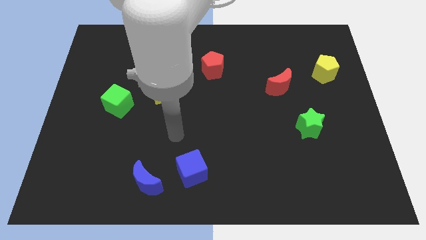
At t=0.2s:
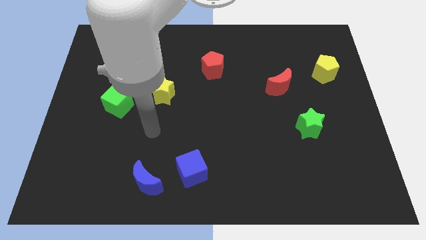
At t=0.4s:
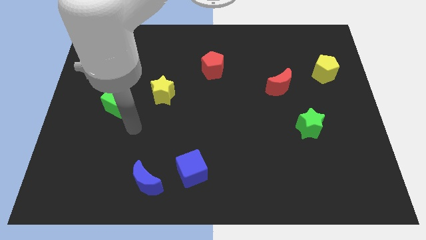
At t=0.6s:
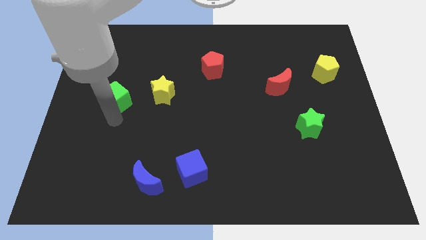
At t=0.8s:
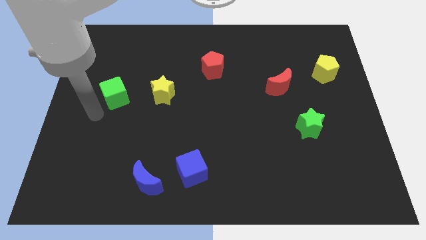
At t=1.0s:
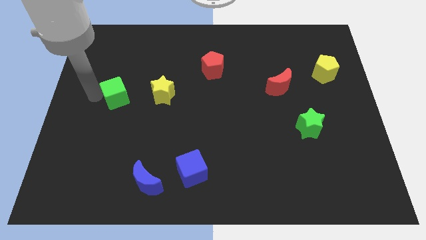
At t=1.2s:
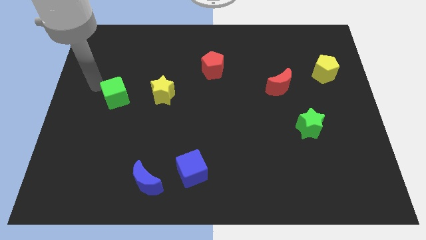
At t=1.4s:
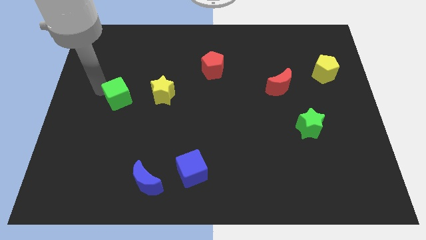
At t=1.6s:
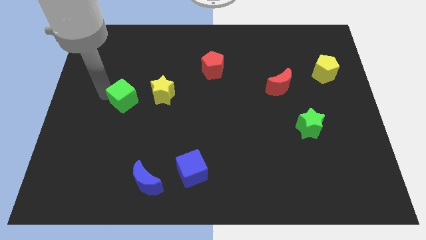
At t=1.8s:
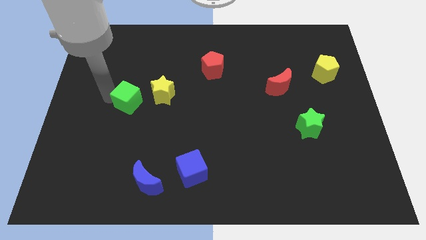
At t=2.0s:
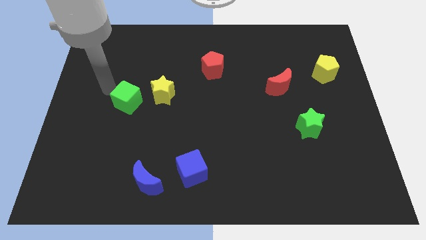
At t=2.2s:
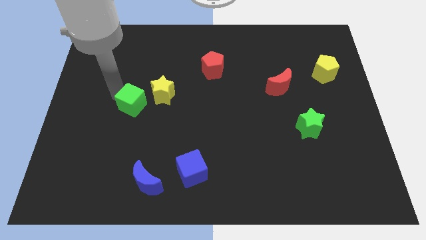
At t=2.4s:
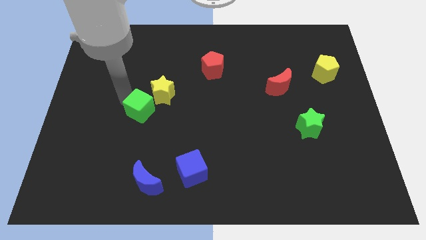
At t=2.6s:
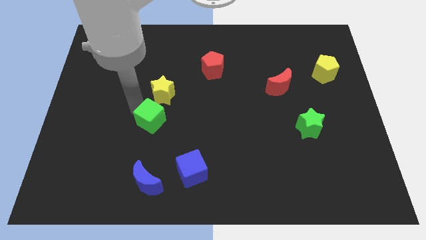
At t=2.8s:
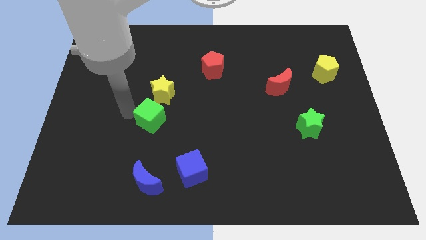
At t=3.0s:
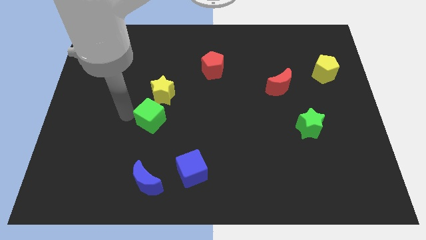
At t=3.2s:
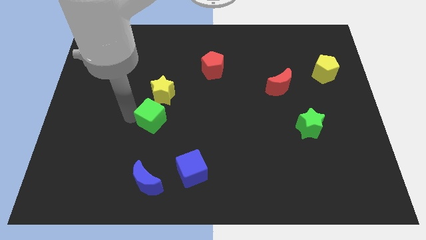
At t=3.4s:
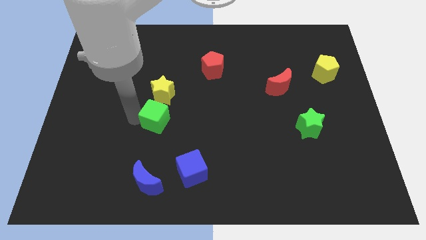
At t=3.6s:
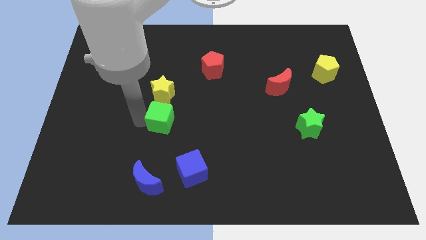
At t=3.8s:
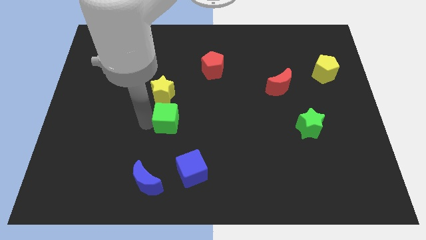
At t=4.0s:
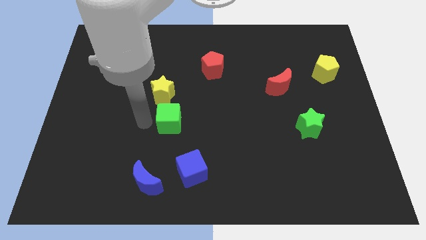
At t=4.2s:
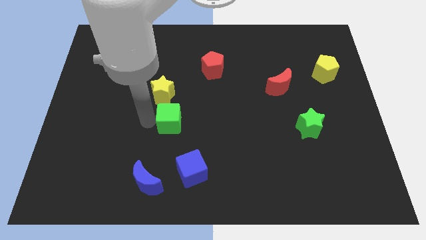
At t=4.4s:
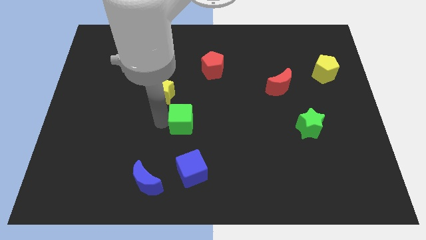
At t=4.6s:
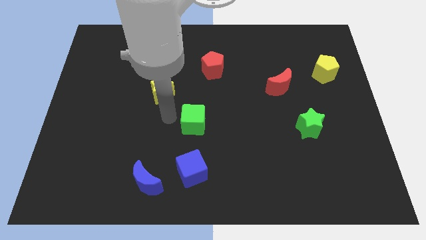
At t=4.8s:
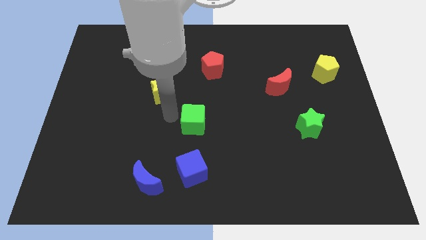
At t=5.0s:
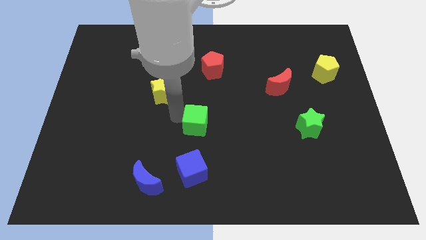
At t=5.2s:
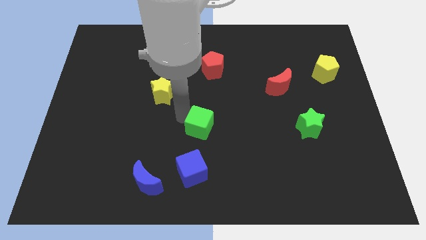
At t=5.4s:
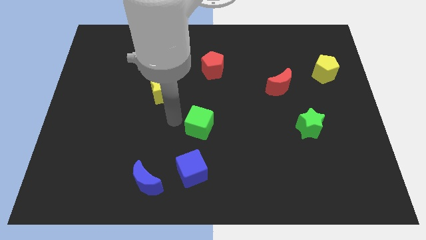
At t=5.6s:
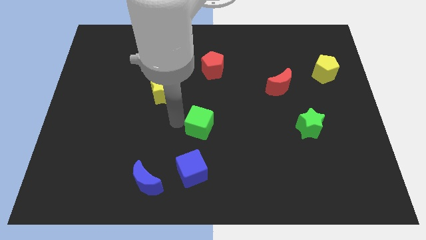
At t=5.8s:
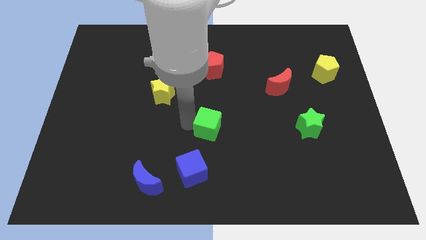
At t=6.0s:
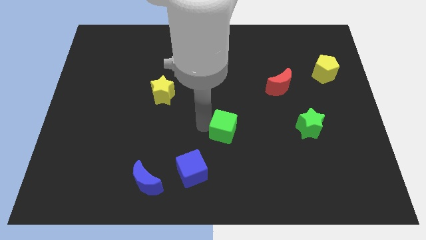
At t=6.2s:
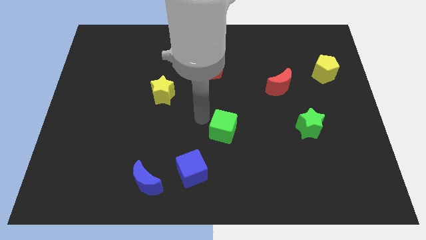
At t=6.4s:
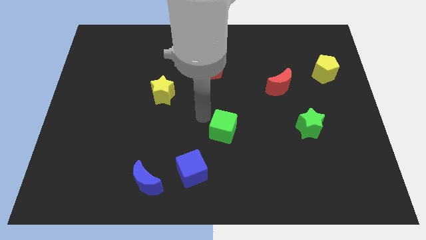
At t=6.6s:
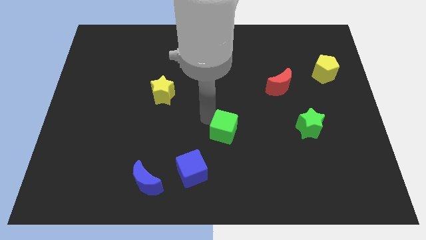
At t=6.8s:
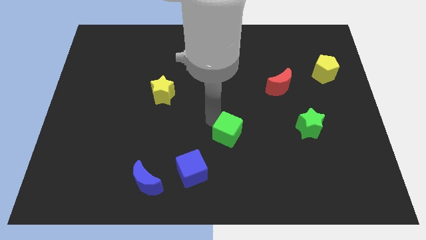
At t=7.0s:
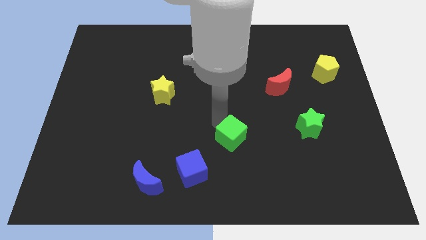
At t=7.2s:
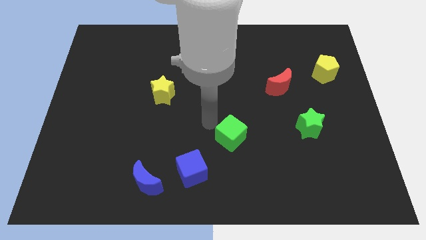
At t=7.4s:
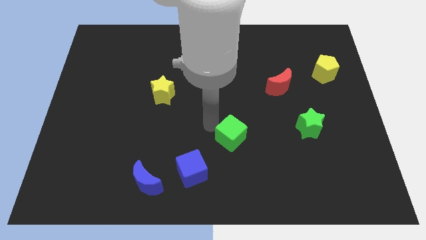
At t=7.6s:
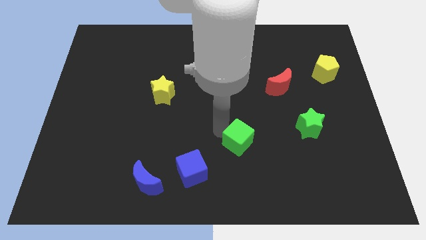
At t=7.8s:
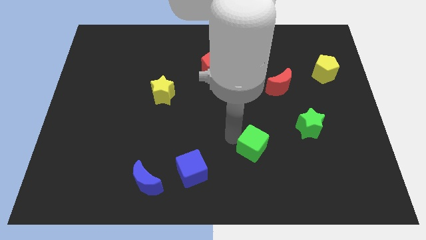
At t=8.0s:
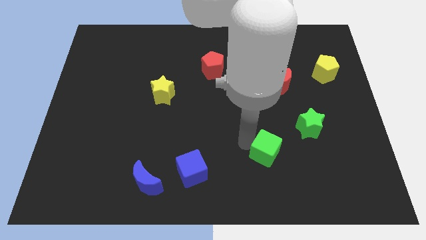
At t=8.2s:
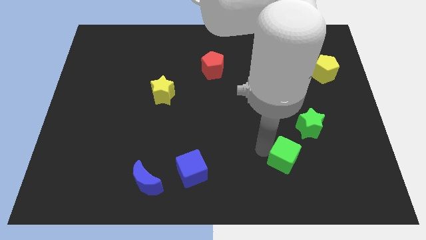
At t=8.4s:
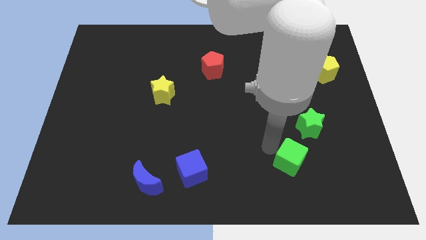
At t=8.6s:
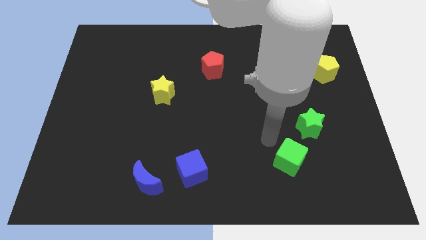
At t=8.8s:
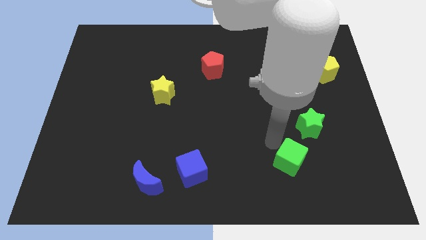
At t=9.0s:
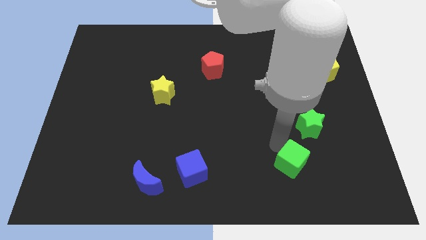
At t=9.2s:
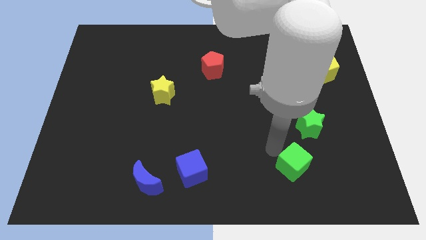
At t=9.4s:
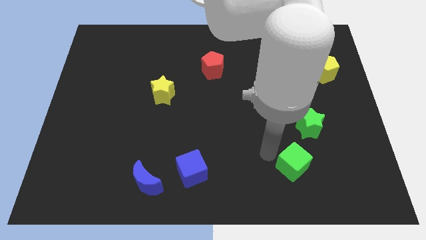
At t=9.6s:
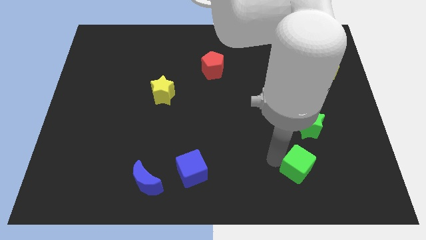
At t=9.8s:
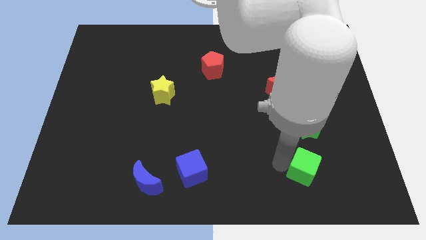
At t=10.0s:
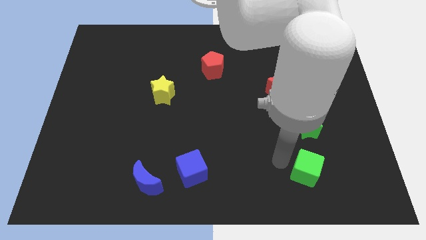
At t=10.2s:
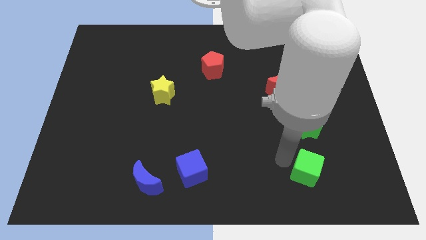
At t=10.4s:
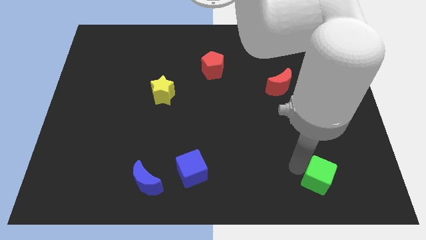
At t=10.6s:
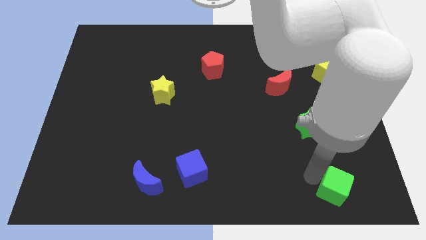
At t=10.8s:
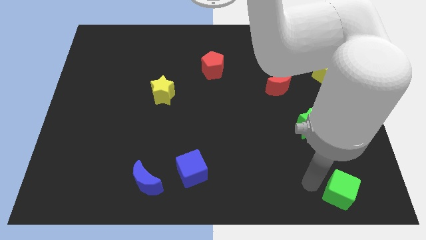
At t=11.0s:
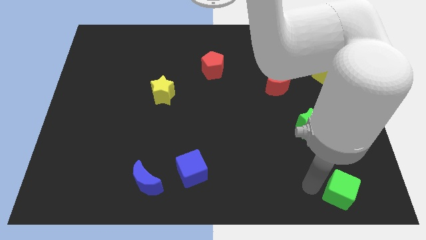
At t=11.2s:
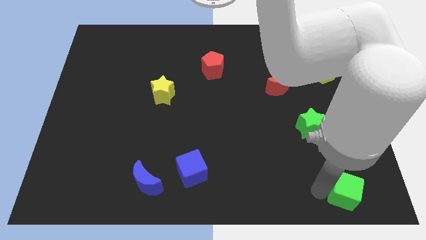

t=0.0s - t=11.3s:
move the green cube to the lower right corner

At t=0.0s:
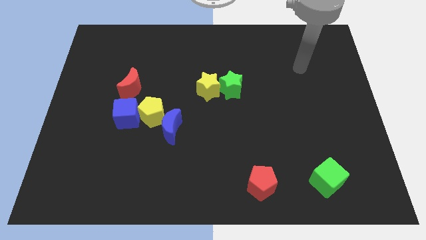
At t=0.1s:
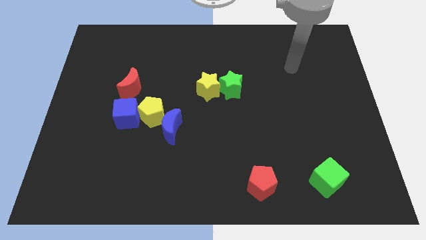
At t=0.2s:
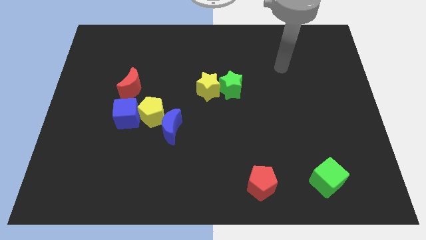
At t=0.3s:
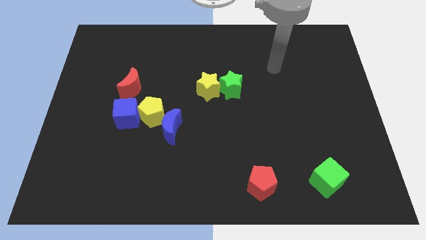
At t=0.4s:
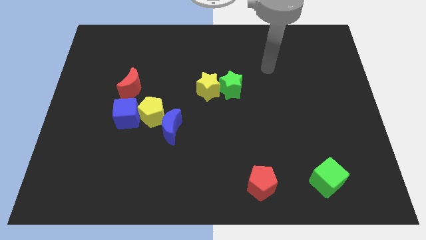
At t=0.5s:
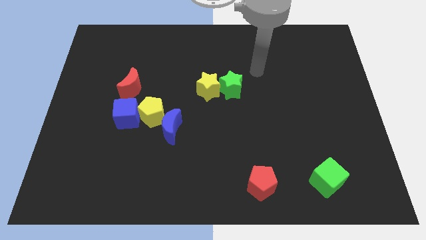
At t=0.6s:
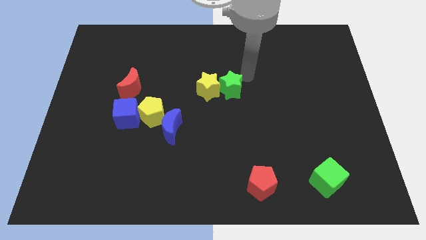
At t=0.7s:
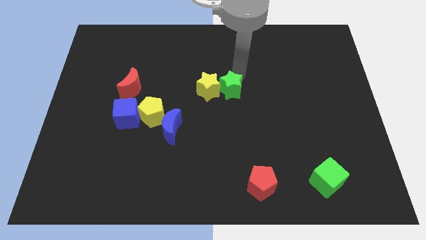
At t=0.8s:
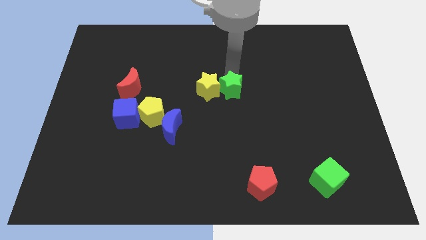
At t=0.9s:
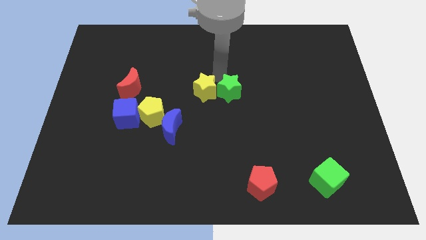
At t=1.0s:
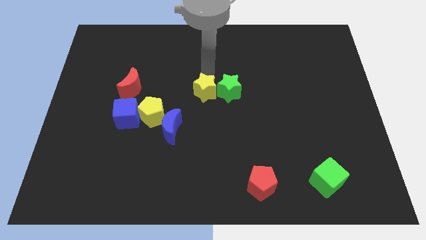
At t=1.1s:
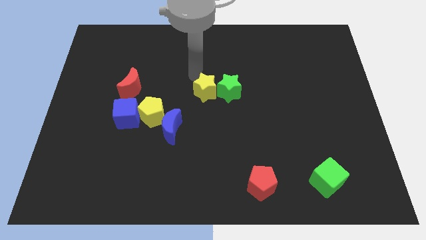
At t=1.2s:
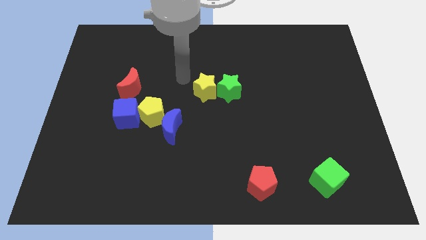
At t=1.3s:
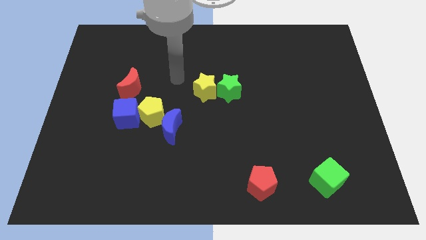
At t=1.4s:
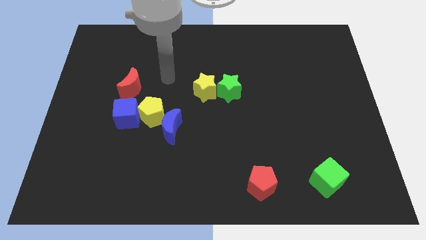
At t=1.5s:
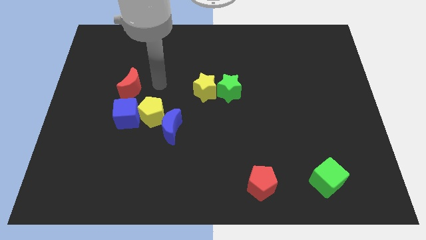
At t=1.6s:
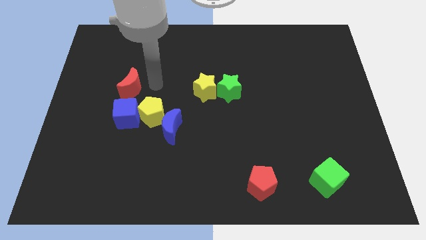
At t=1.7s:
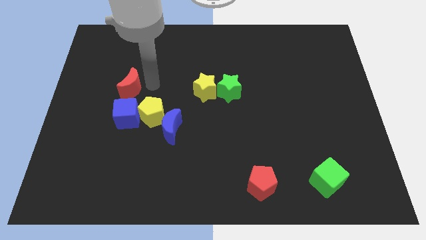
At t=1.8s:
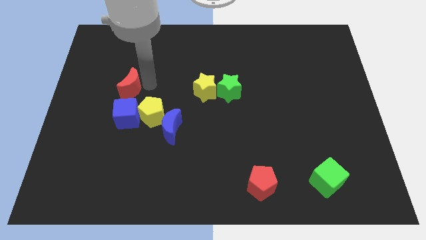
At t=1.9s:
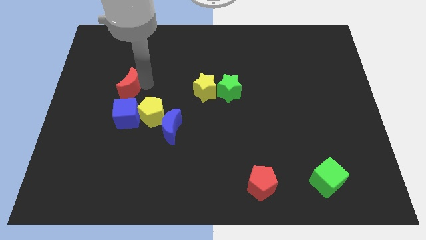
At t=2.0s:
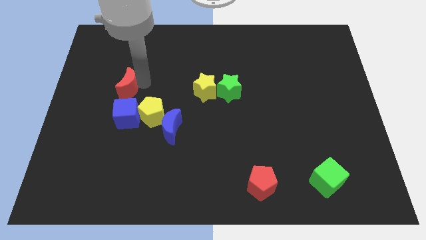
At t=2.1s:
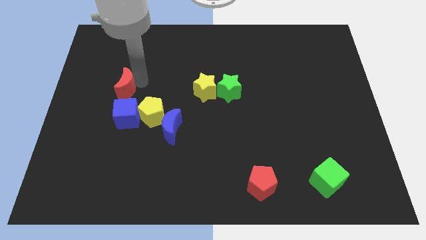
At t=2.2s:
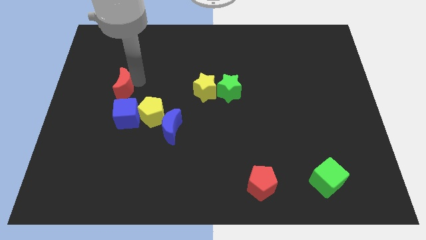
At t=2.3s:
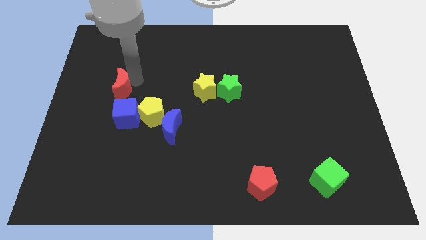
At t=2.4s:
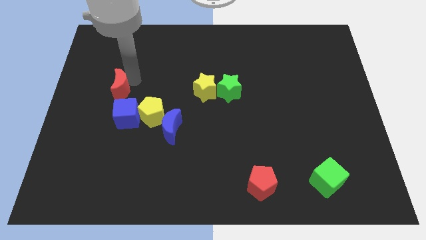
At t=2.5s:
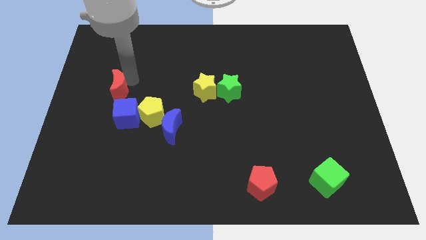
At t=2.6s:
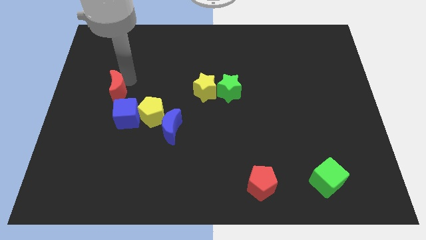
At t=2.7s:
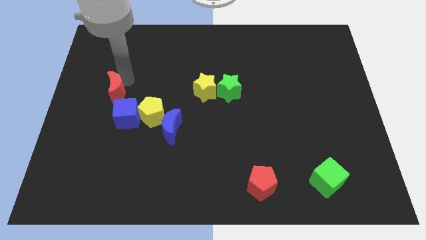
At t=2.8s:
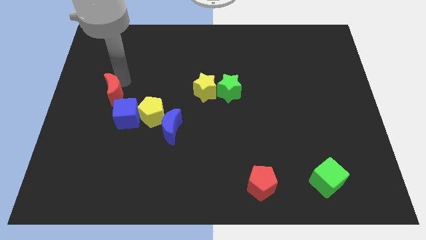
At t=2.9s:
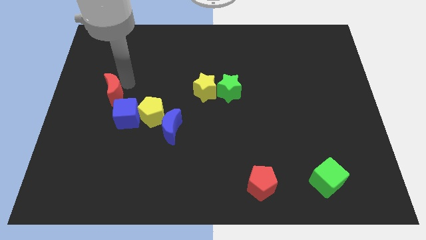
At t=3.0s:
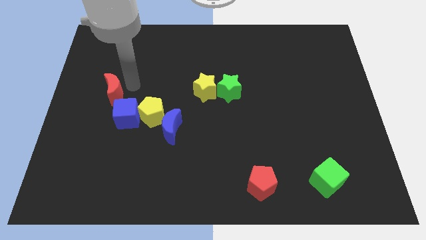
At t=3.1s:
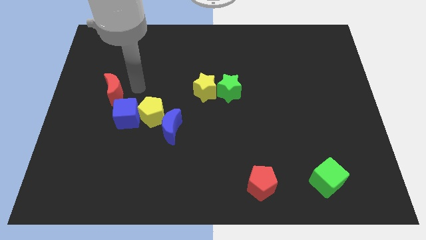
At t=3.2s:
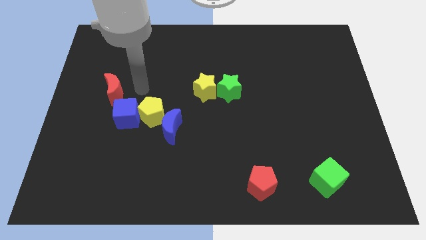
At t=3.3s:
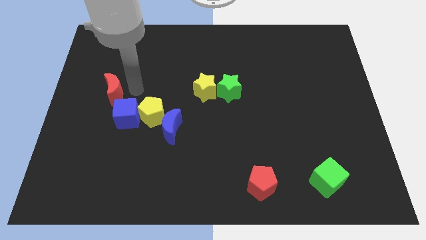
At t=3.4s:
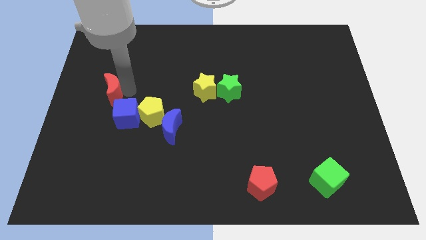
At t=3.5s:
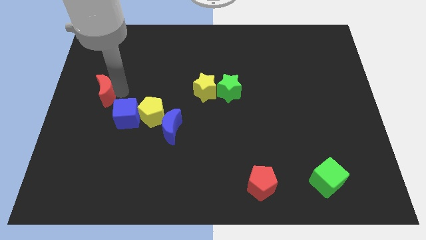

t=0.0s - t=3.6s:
push the red moon to the left side of the board
